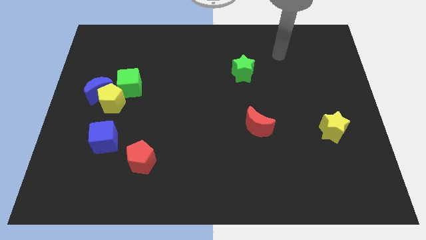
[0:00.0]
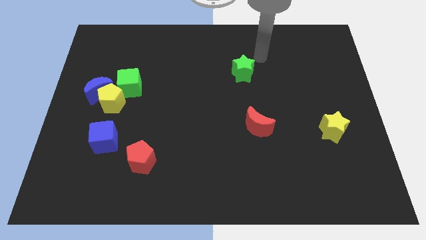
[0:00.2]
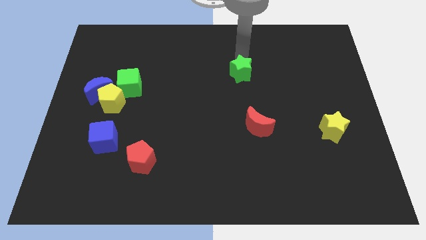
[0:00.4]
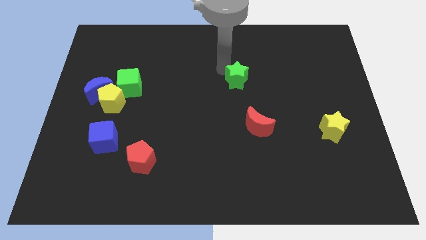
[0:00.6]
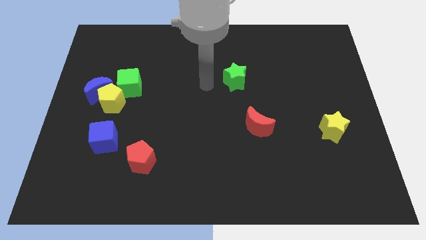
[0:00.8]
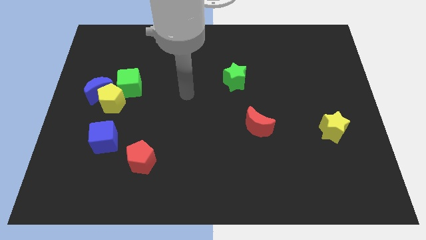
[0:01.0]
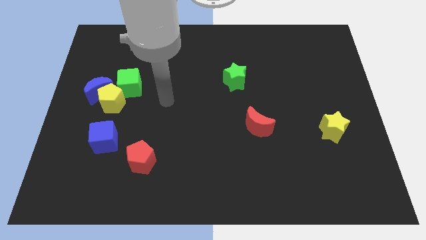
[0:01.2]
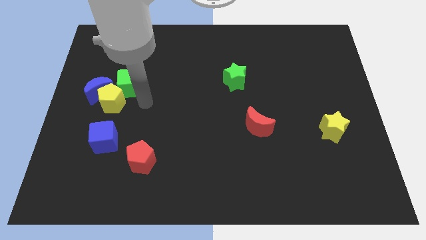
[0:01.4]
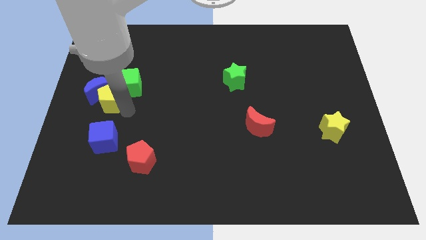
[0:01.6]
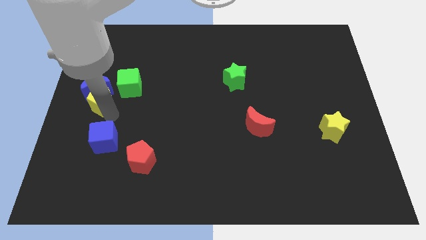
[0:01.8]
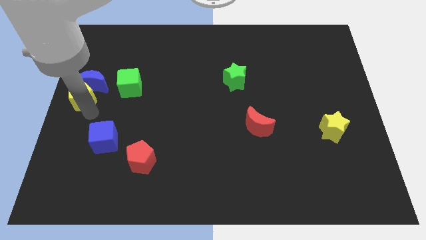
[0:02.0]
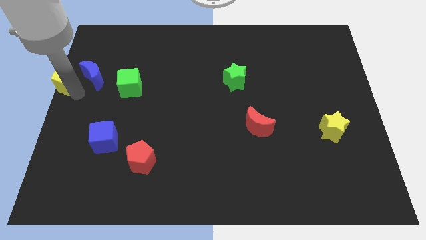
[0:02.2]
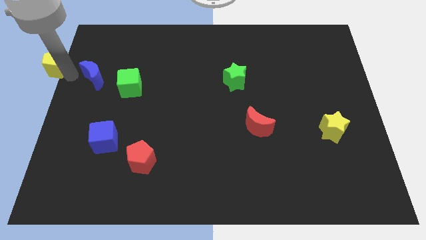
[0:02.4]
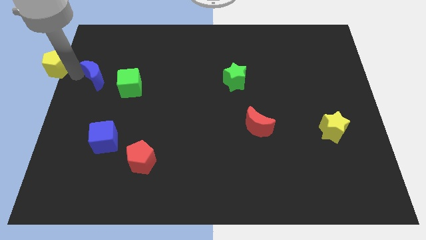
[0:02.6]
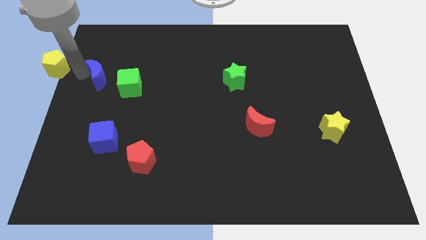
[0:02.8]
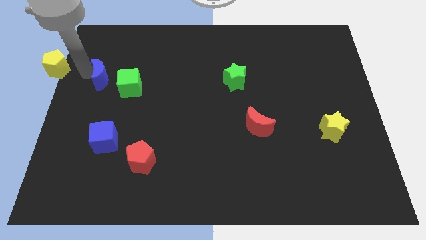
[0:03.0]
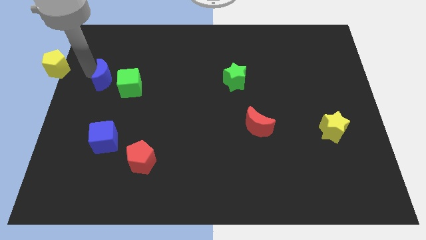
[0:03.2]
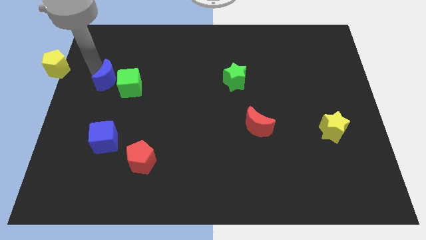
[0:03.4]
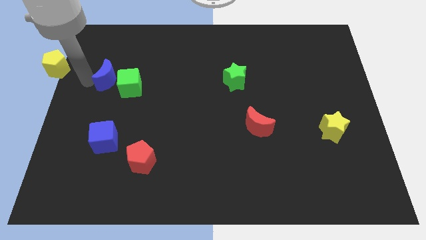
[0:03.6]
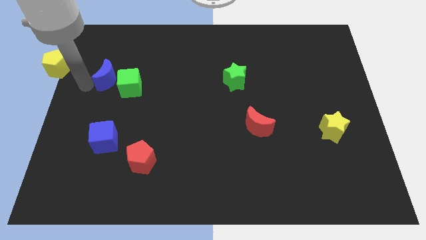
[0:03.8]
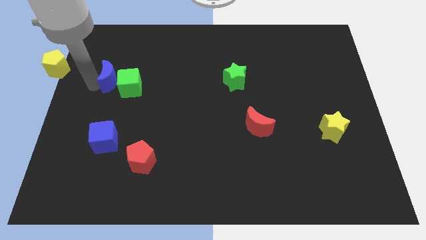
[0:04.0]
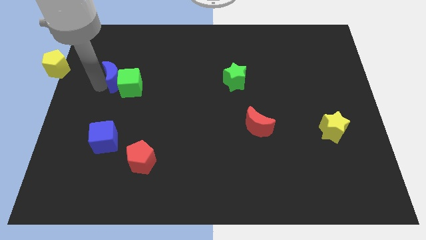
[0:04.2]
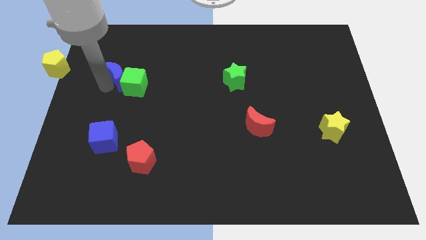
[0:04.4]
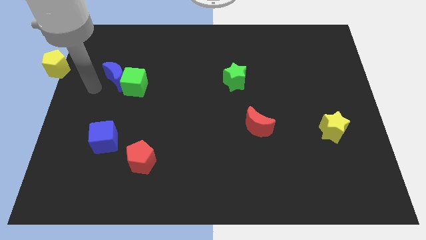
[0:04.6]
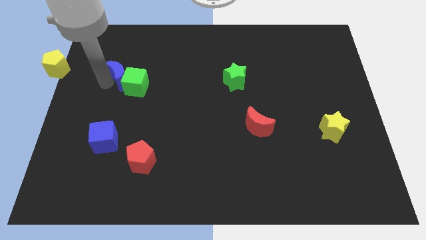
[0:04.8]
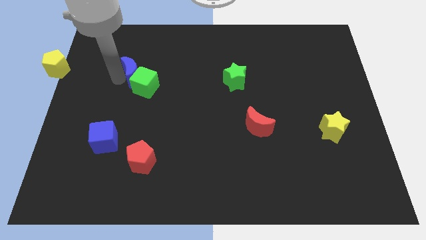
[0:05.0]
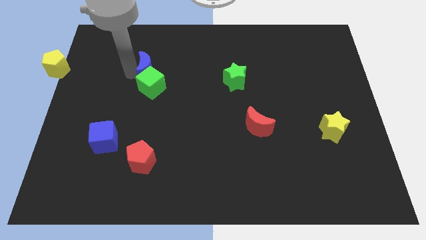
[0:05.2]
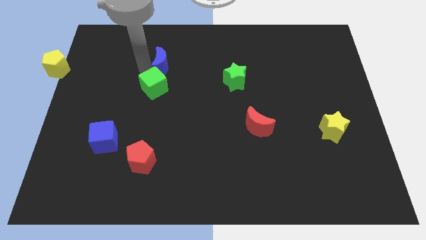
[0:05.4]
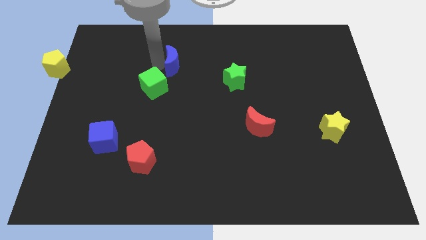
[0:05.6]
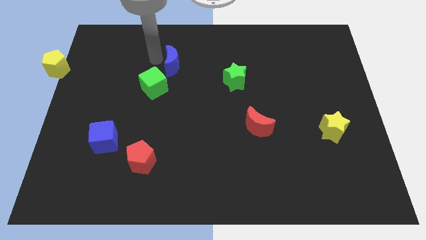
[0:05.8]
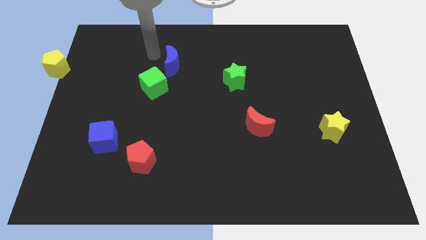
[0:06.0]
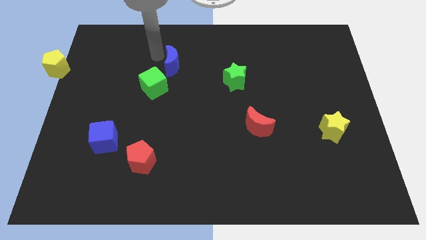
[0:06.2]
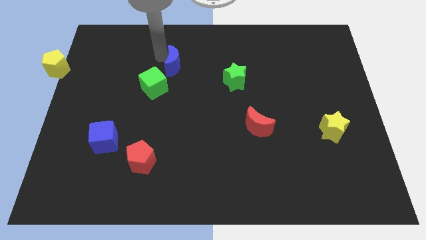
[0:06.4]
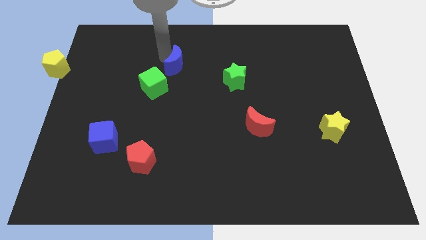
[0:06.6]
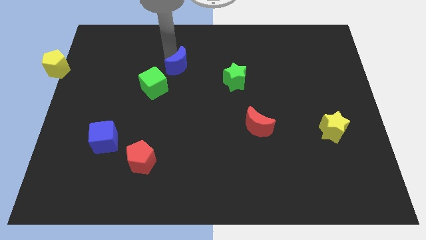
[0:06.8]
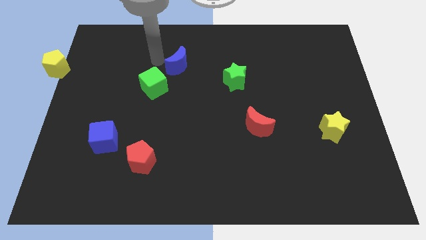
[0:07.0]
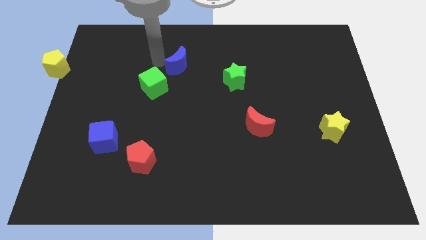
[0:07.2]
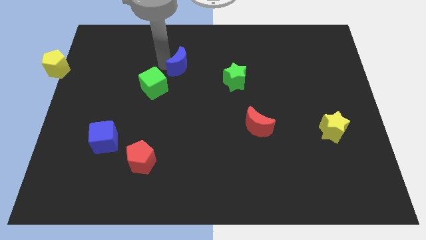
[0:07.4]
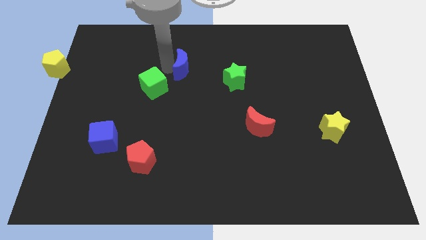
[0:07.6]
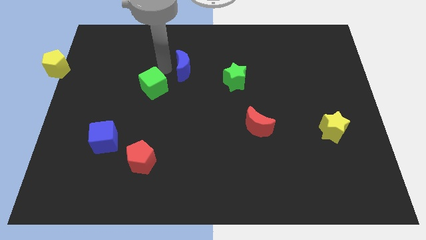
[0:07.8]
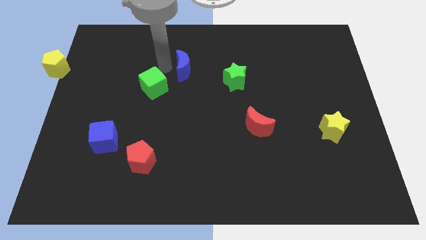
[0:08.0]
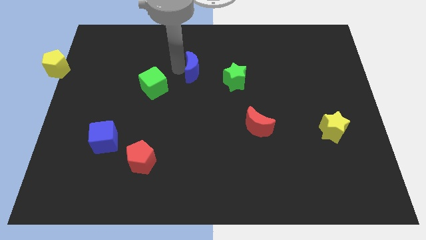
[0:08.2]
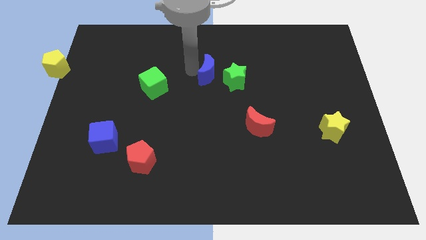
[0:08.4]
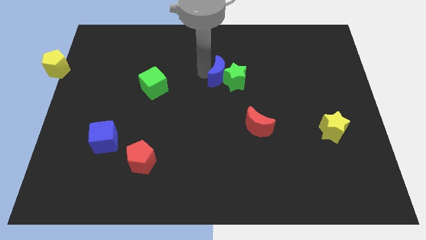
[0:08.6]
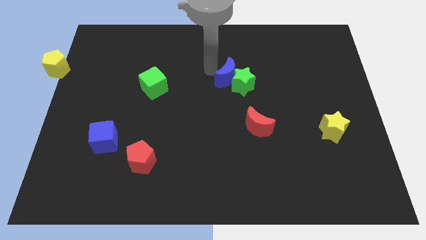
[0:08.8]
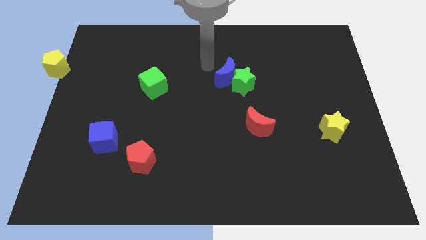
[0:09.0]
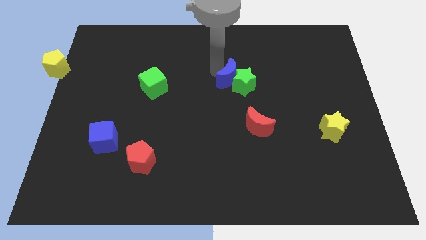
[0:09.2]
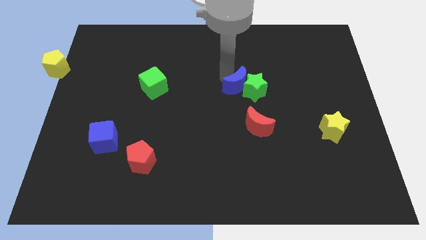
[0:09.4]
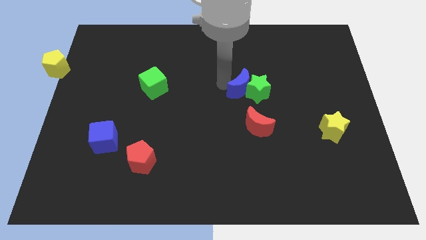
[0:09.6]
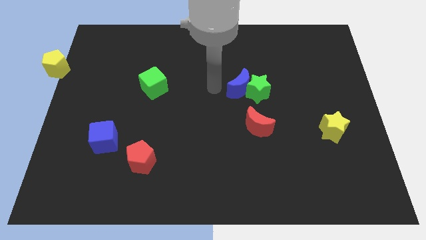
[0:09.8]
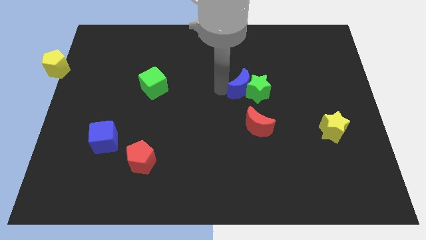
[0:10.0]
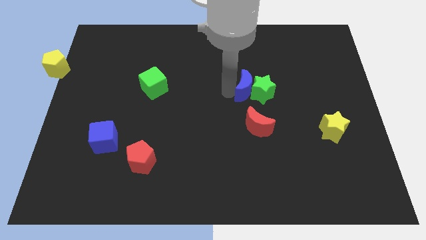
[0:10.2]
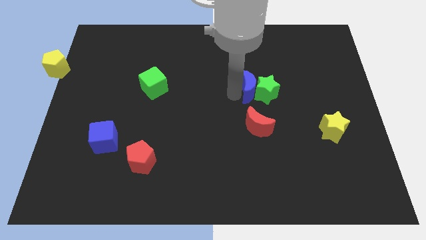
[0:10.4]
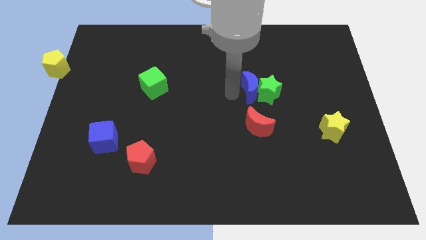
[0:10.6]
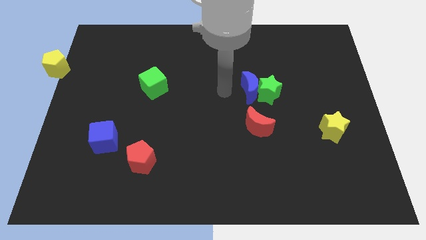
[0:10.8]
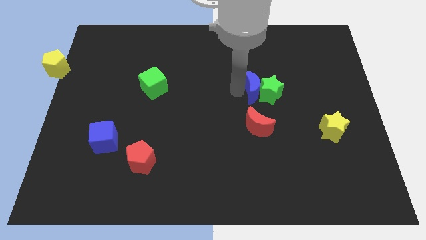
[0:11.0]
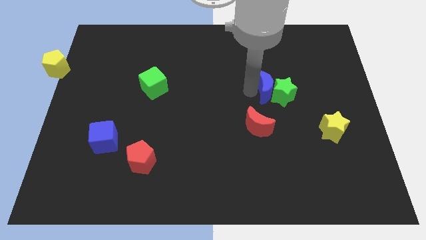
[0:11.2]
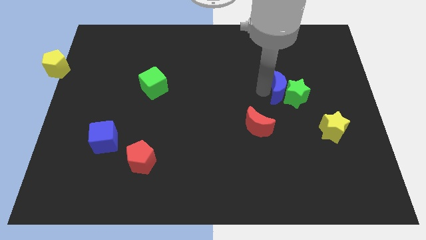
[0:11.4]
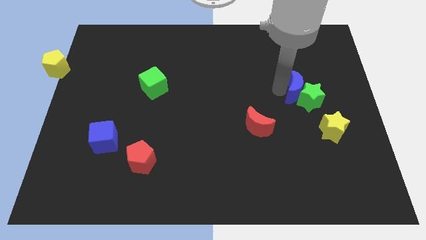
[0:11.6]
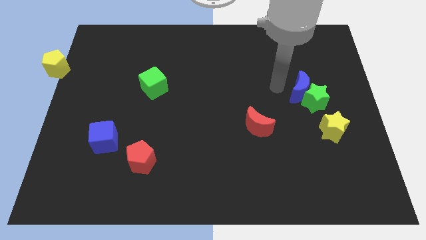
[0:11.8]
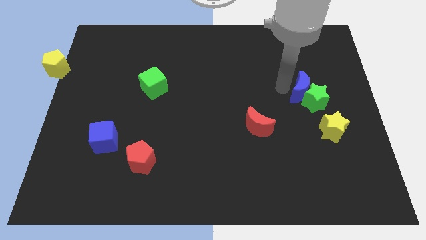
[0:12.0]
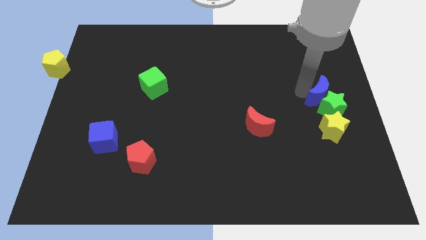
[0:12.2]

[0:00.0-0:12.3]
put the blue moon to the center right

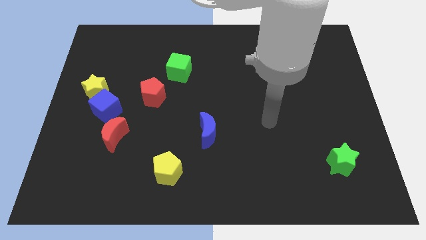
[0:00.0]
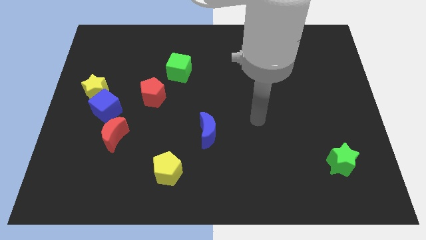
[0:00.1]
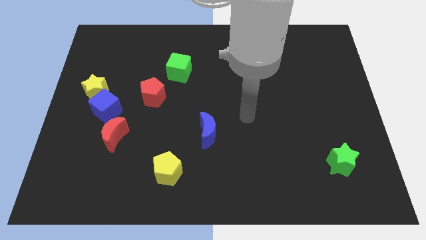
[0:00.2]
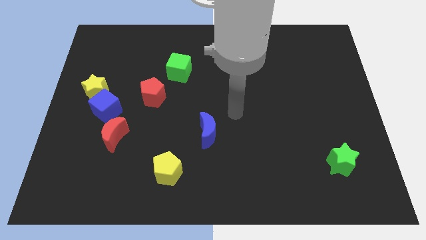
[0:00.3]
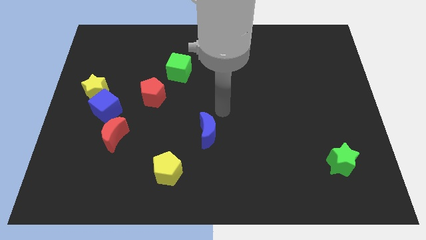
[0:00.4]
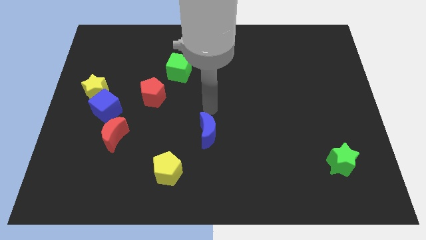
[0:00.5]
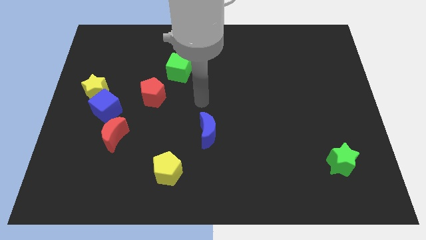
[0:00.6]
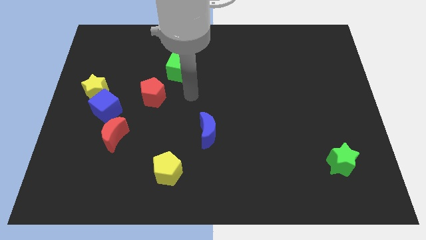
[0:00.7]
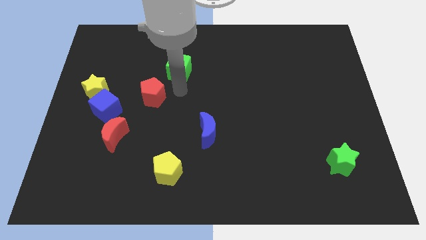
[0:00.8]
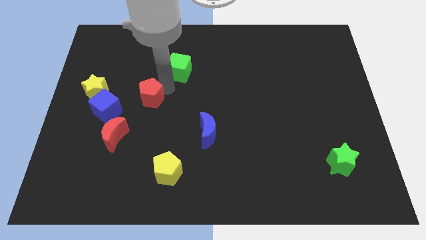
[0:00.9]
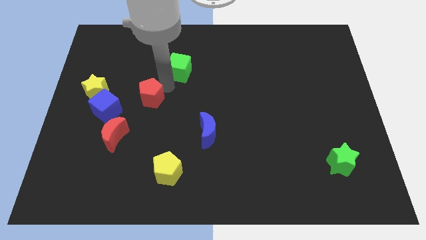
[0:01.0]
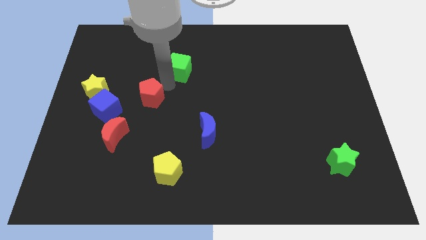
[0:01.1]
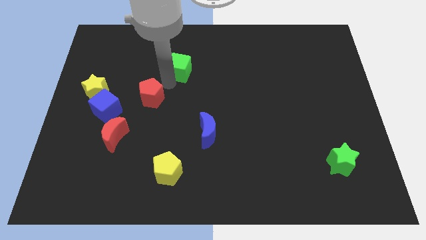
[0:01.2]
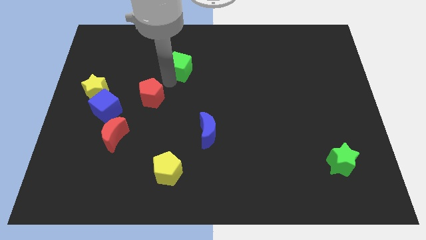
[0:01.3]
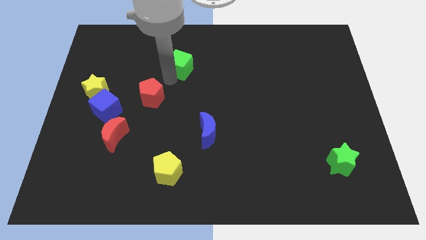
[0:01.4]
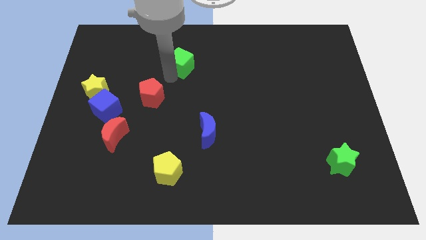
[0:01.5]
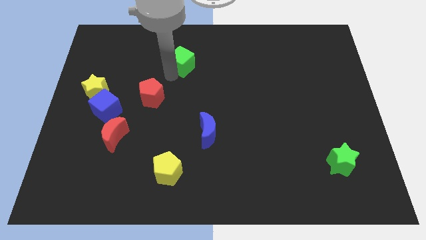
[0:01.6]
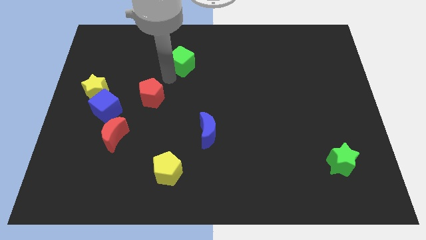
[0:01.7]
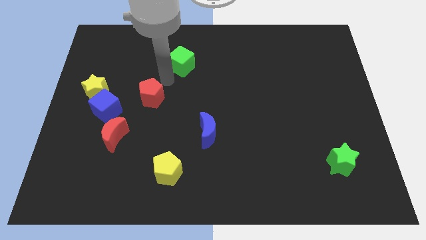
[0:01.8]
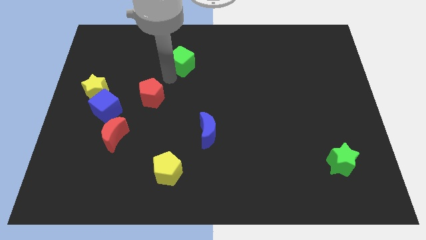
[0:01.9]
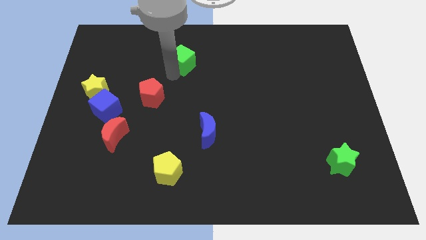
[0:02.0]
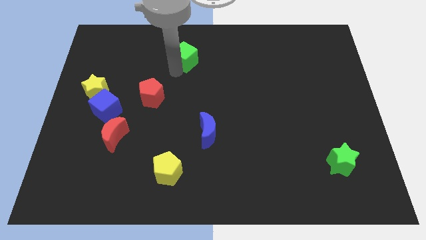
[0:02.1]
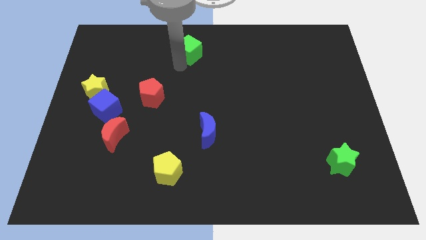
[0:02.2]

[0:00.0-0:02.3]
put the green cube to the top
